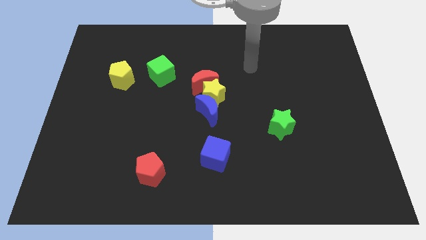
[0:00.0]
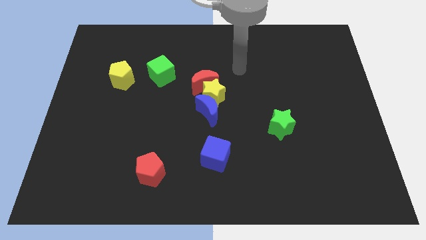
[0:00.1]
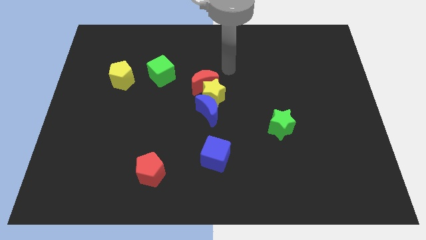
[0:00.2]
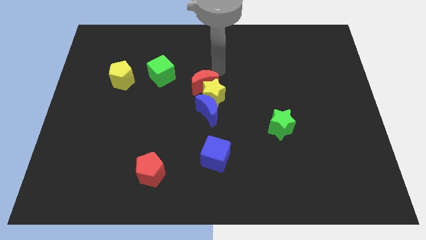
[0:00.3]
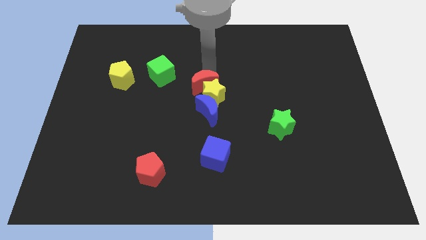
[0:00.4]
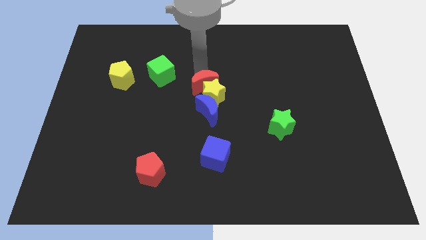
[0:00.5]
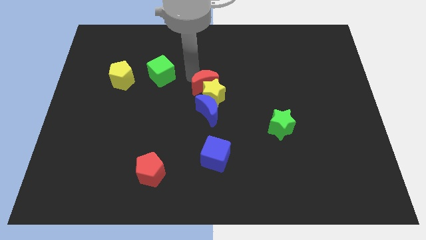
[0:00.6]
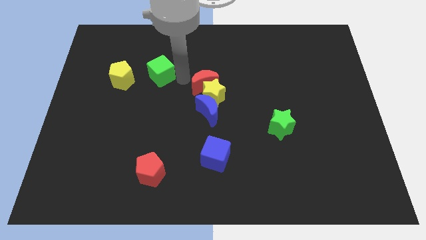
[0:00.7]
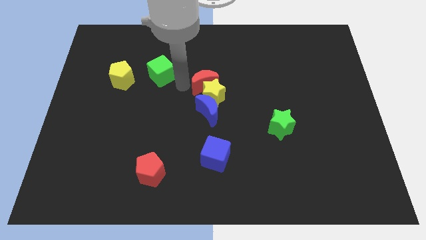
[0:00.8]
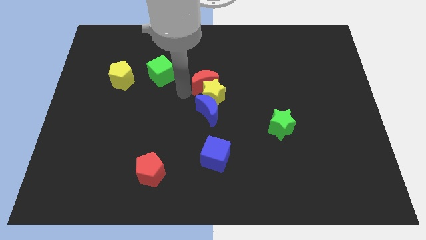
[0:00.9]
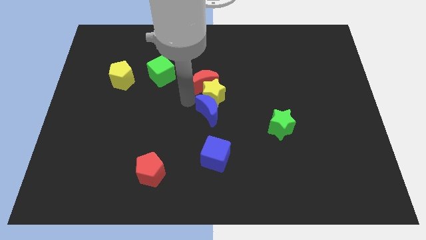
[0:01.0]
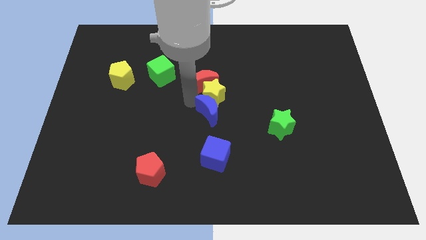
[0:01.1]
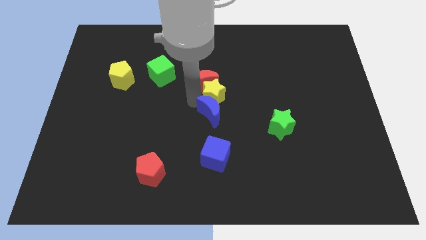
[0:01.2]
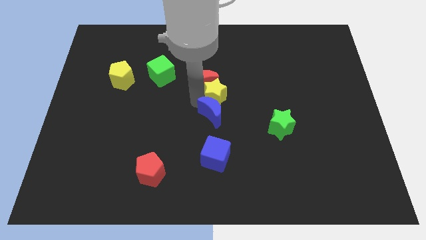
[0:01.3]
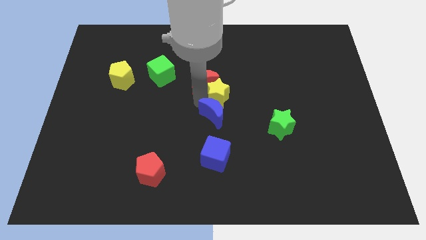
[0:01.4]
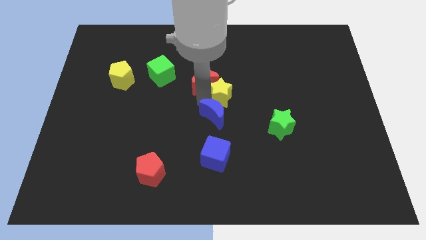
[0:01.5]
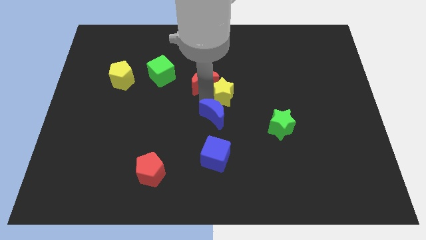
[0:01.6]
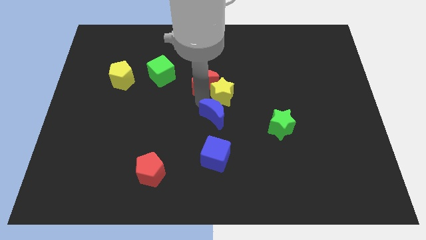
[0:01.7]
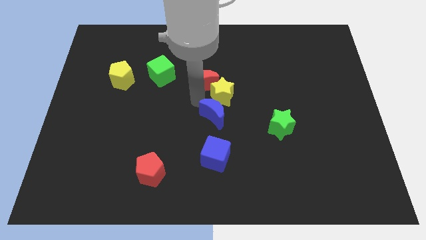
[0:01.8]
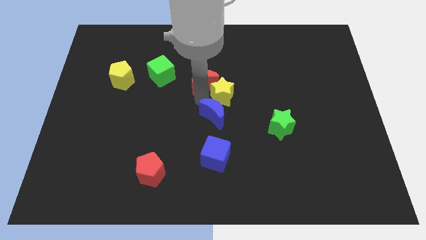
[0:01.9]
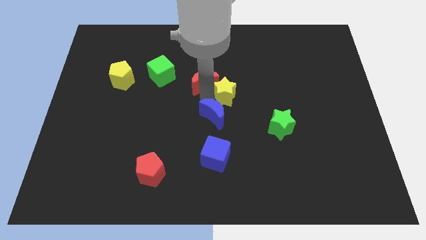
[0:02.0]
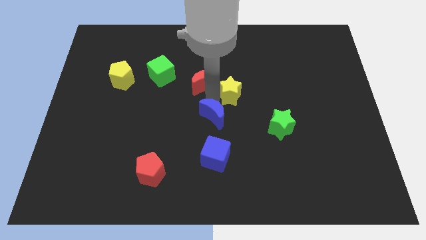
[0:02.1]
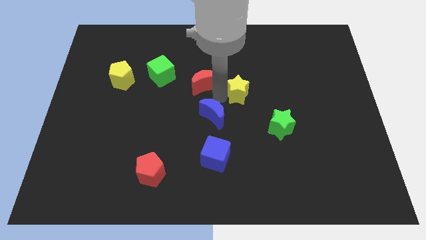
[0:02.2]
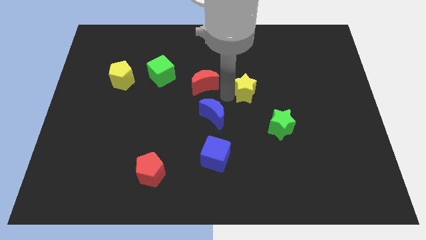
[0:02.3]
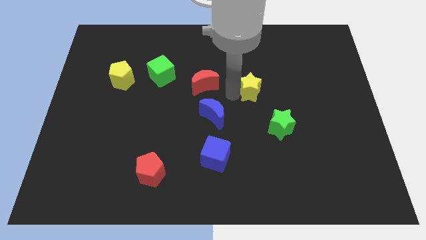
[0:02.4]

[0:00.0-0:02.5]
separate the yellow star from the red moon and blue moon

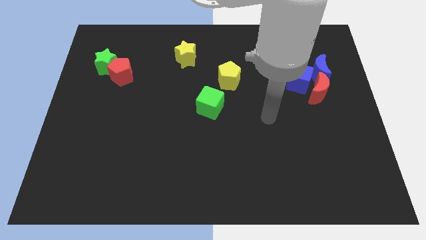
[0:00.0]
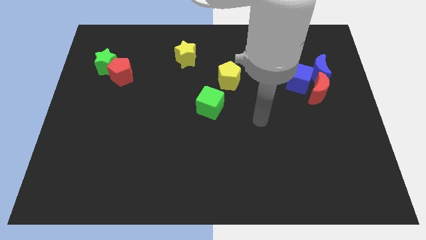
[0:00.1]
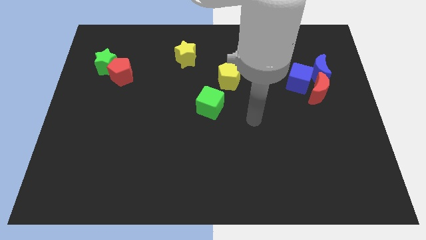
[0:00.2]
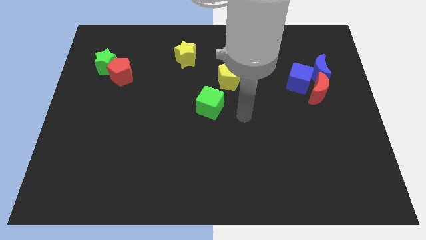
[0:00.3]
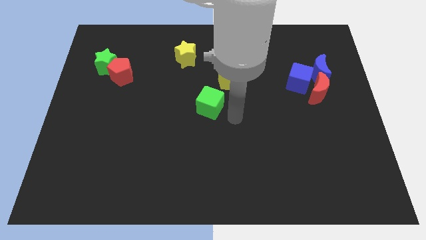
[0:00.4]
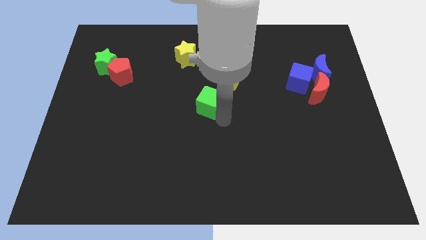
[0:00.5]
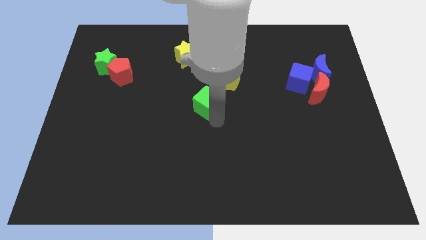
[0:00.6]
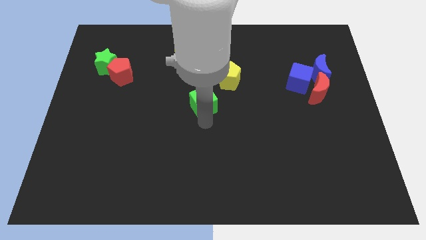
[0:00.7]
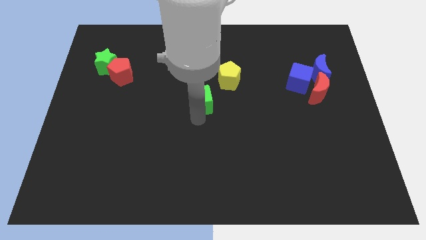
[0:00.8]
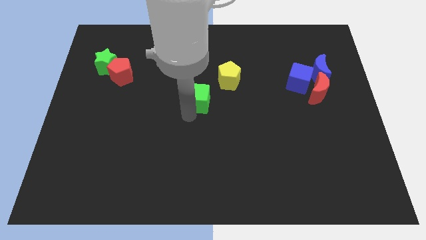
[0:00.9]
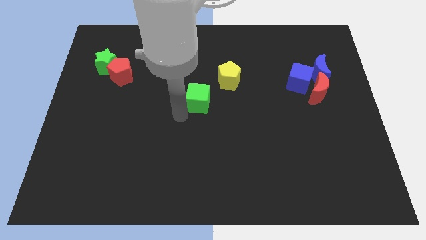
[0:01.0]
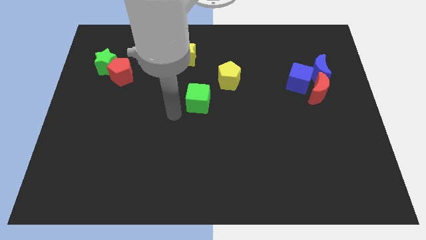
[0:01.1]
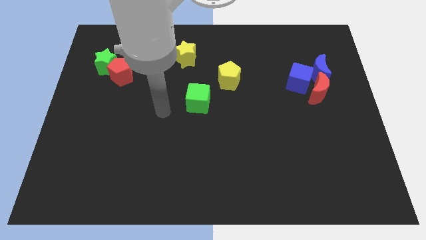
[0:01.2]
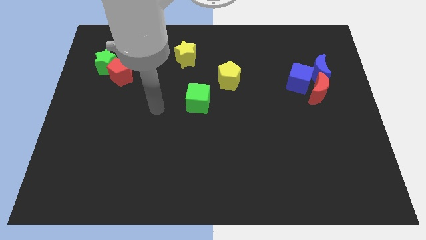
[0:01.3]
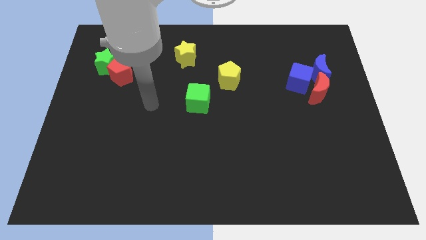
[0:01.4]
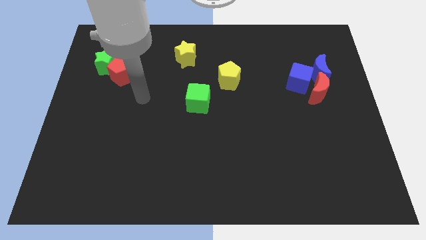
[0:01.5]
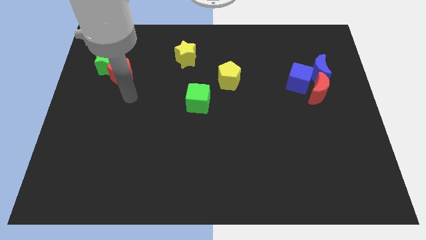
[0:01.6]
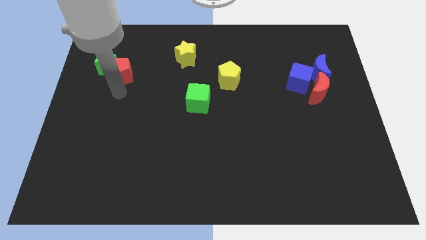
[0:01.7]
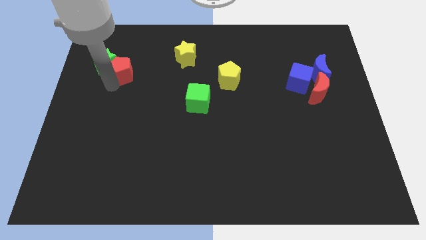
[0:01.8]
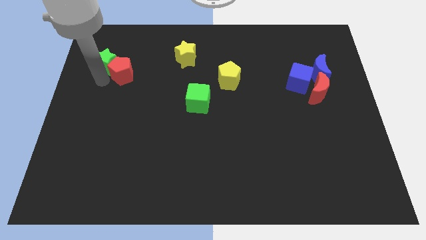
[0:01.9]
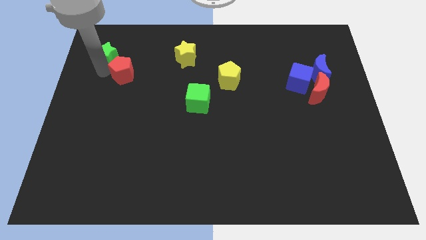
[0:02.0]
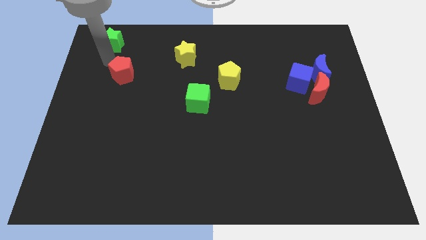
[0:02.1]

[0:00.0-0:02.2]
separate the red pentagon from the green star

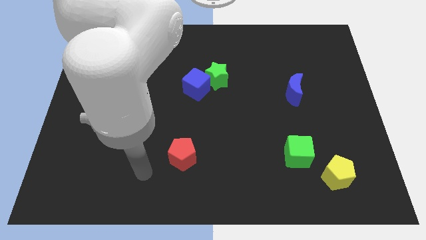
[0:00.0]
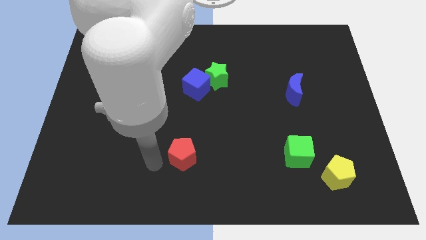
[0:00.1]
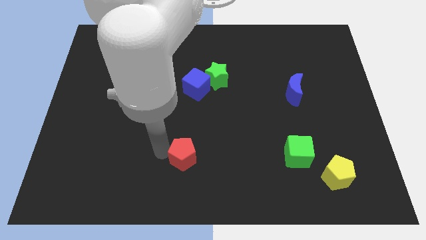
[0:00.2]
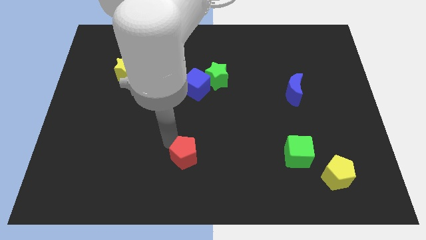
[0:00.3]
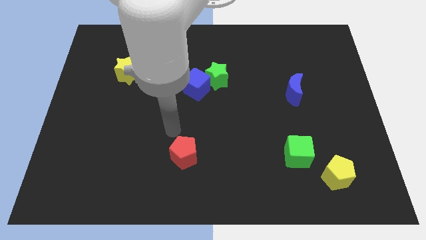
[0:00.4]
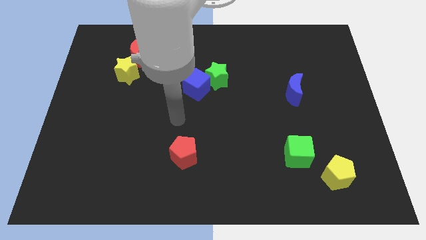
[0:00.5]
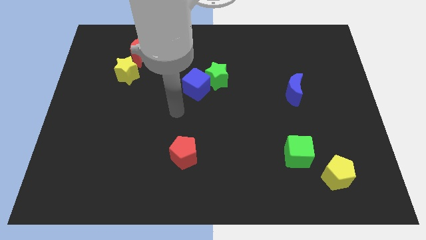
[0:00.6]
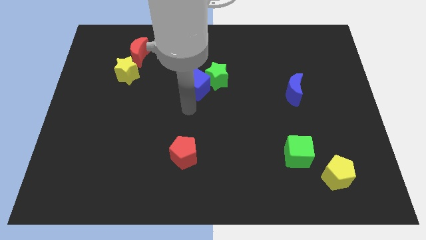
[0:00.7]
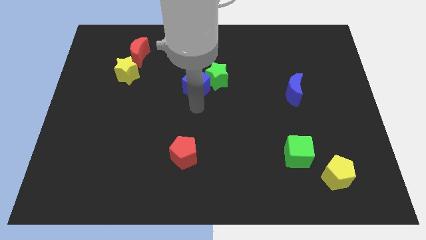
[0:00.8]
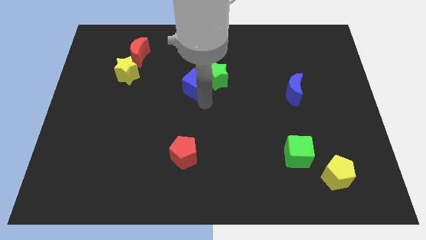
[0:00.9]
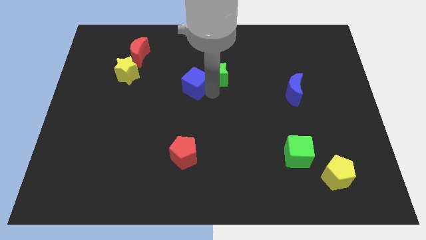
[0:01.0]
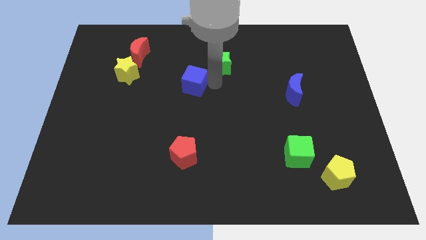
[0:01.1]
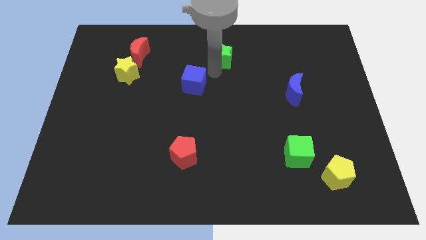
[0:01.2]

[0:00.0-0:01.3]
move the blue cube away from the green star

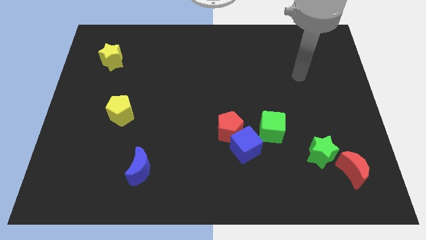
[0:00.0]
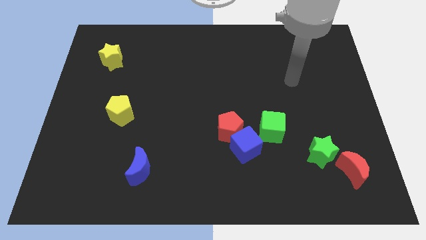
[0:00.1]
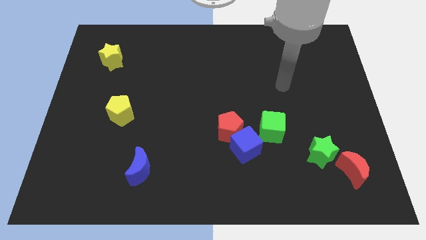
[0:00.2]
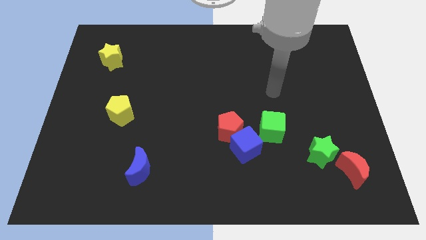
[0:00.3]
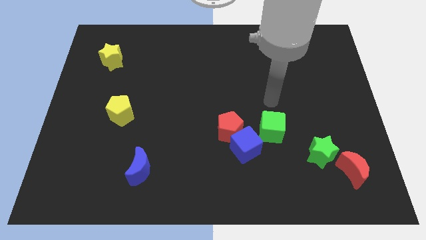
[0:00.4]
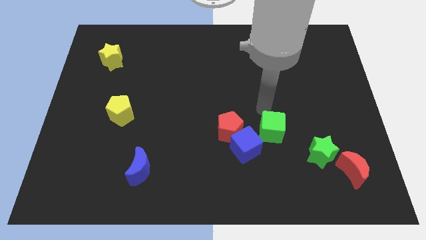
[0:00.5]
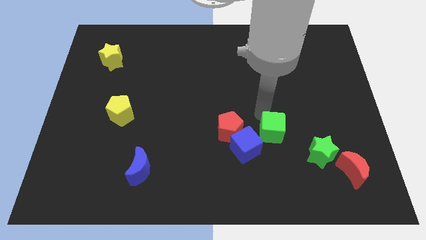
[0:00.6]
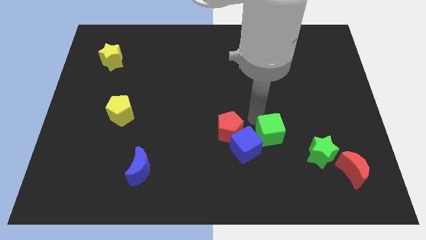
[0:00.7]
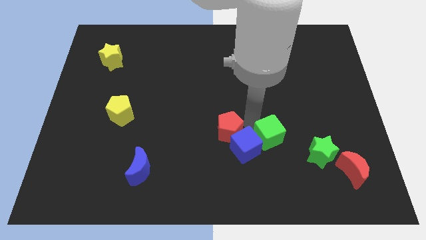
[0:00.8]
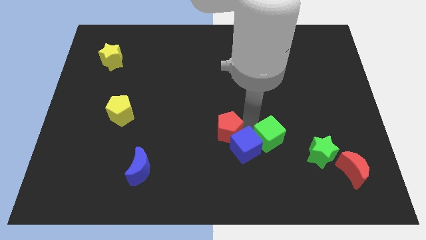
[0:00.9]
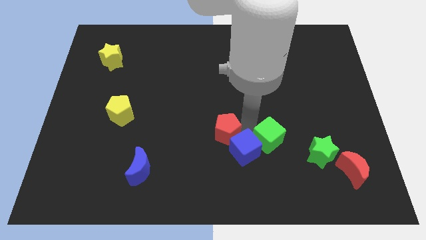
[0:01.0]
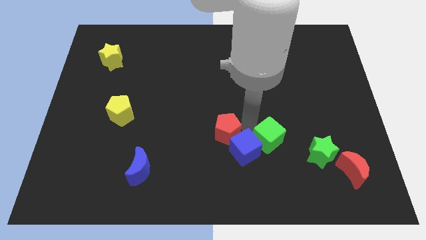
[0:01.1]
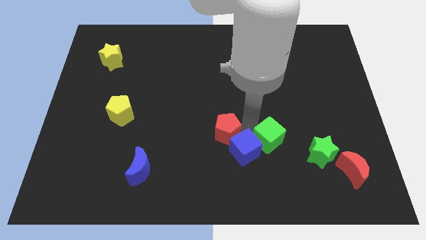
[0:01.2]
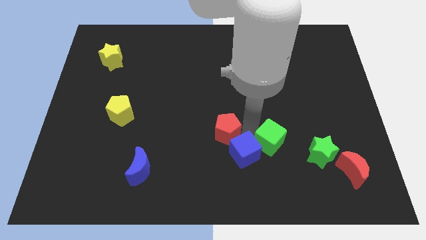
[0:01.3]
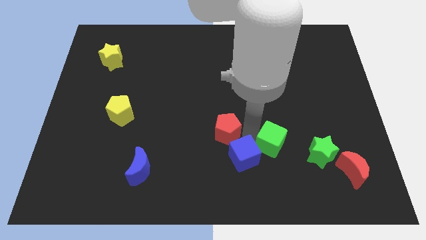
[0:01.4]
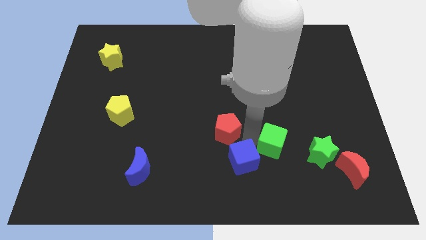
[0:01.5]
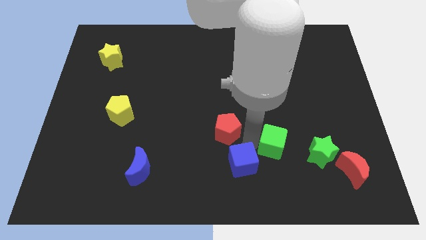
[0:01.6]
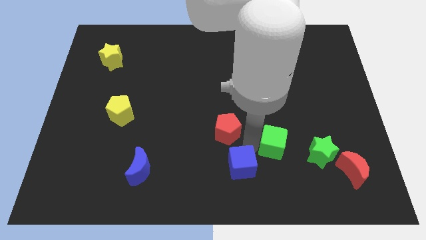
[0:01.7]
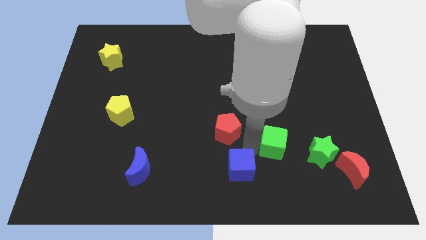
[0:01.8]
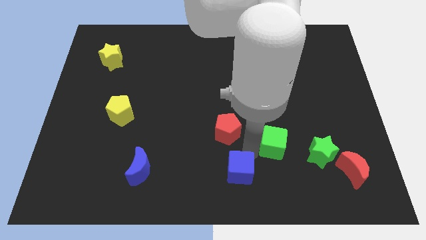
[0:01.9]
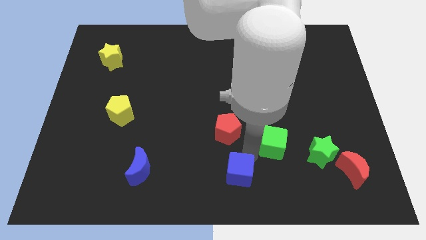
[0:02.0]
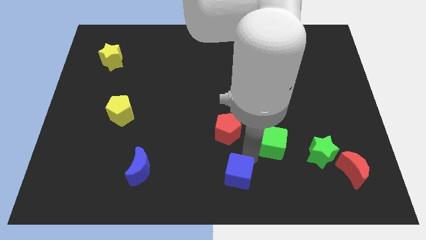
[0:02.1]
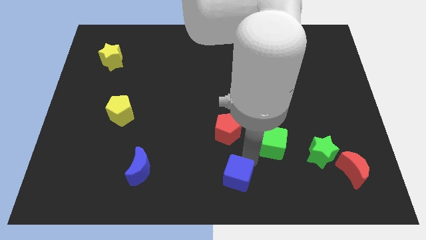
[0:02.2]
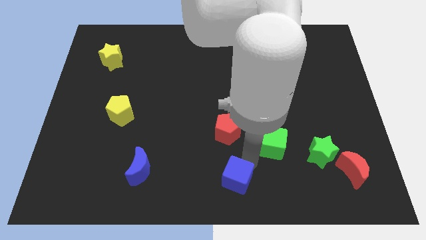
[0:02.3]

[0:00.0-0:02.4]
separate the blue cube from the red pentagon and green cube

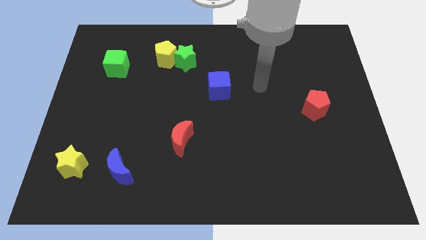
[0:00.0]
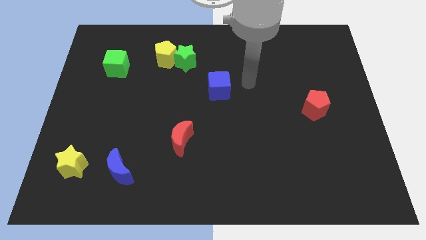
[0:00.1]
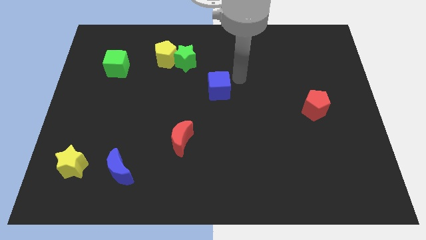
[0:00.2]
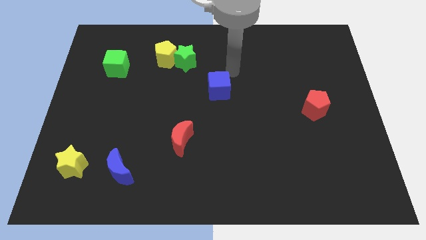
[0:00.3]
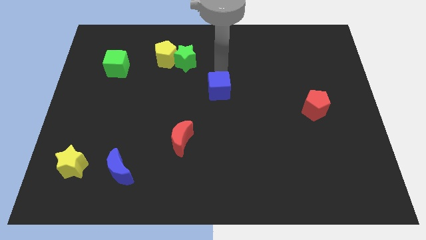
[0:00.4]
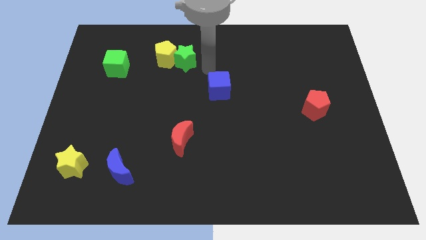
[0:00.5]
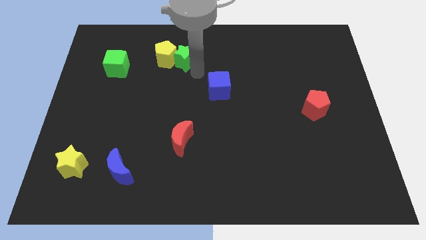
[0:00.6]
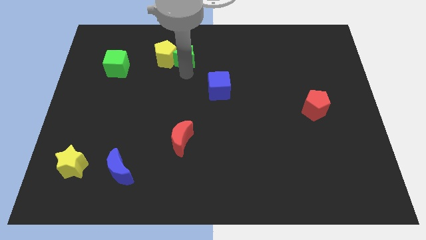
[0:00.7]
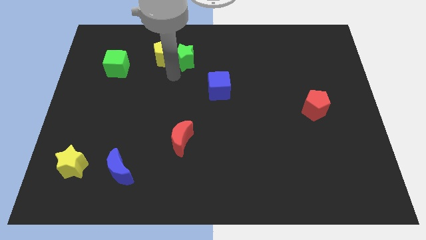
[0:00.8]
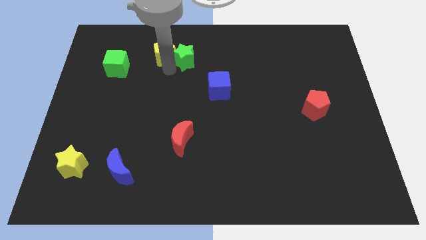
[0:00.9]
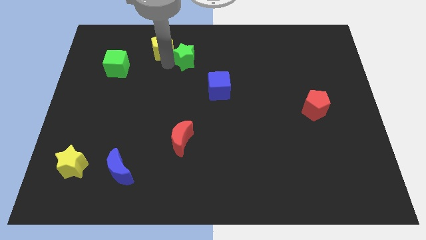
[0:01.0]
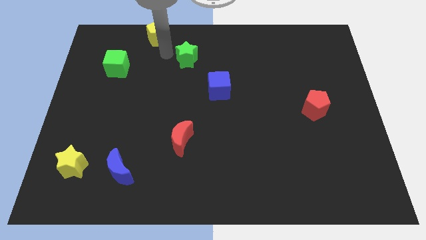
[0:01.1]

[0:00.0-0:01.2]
pull the green star apart from the yellow pentagon
